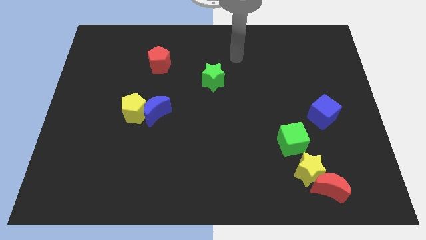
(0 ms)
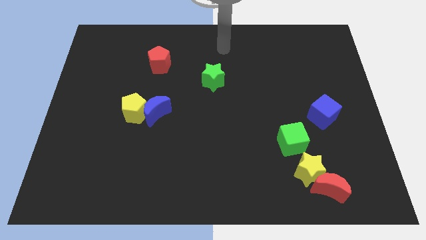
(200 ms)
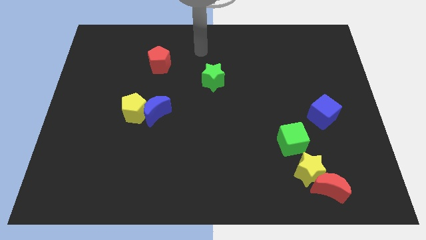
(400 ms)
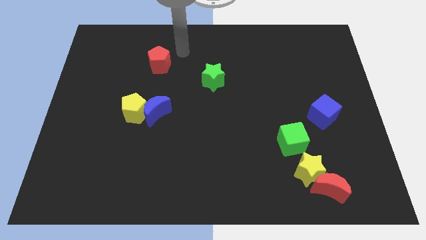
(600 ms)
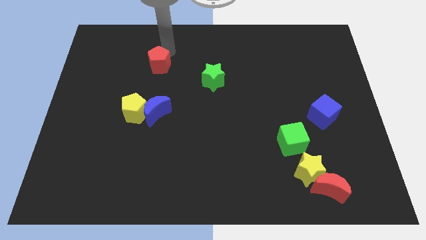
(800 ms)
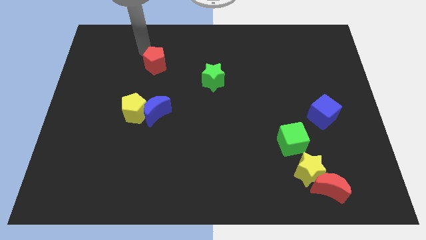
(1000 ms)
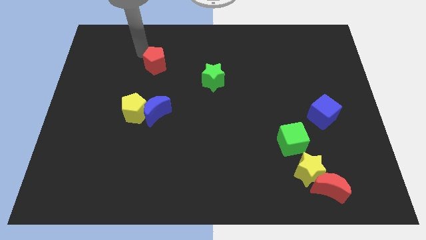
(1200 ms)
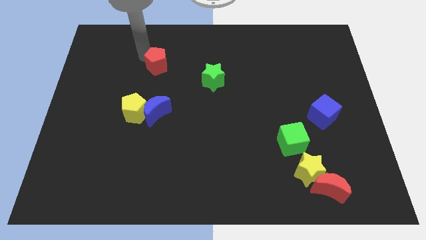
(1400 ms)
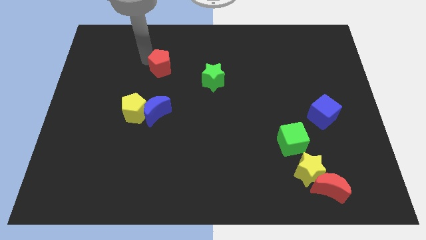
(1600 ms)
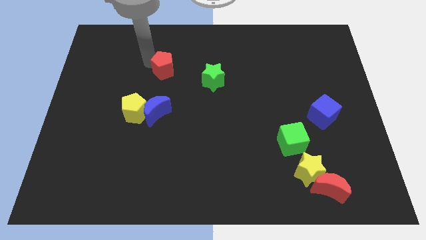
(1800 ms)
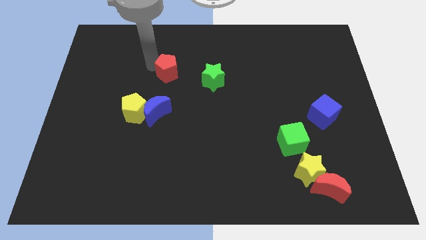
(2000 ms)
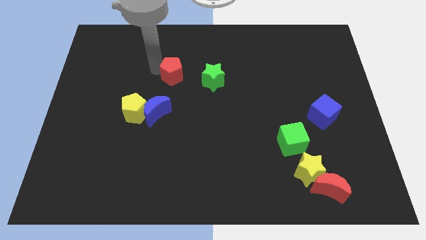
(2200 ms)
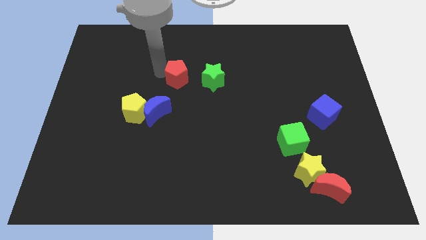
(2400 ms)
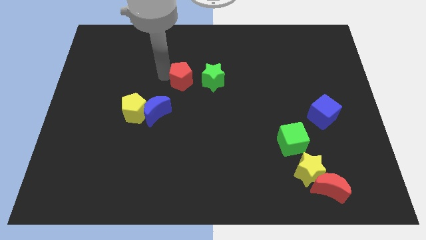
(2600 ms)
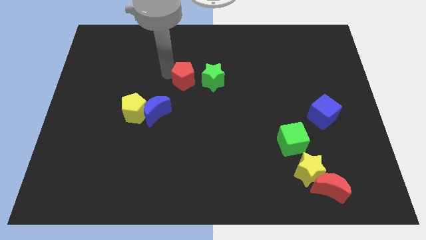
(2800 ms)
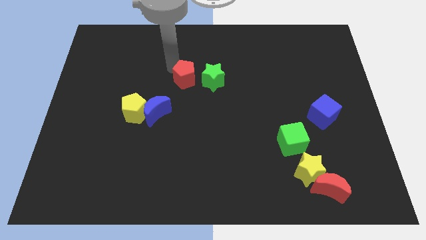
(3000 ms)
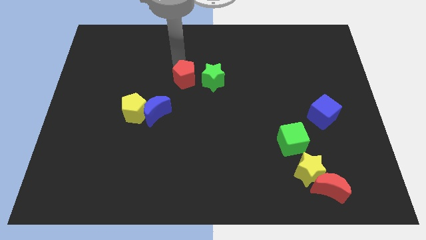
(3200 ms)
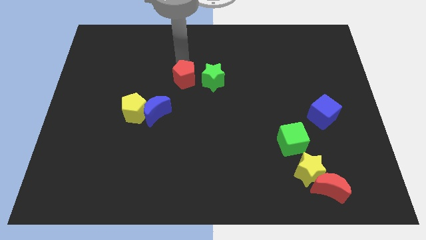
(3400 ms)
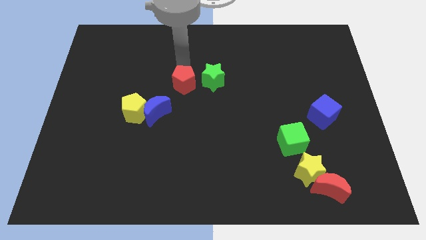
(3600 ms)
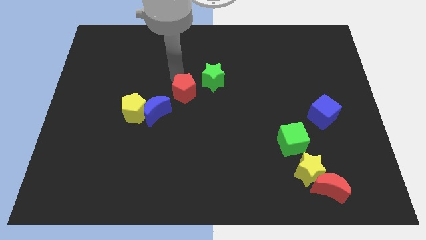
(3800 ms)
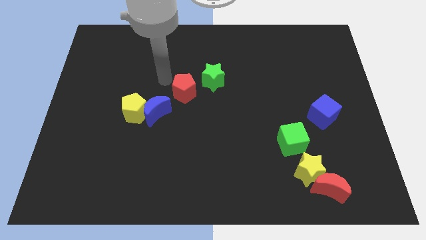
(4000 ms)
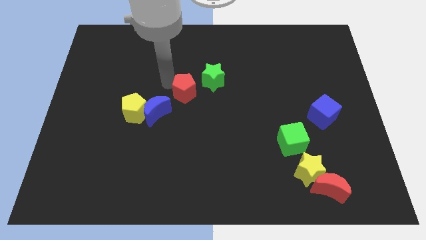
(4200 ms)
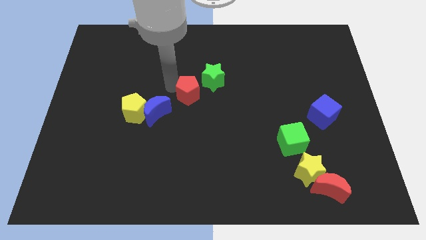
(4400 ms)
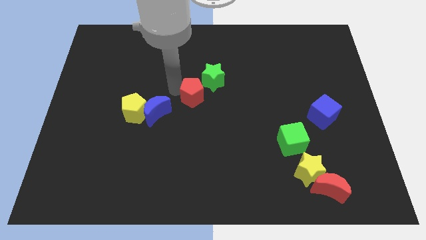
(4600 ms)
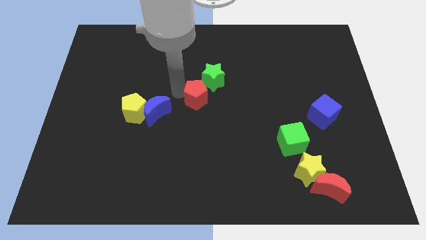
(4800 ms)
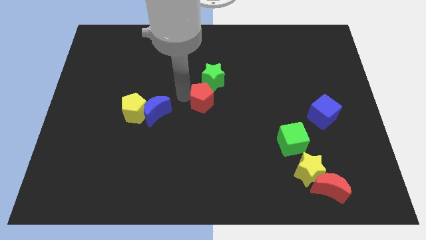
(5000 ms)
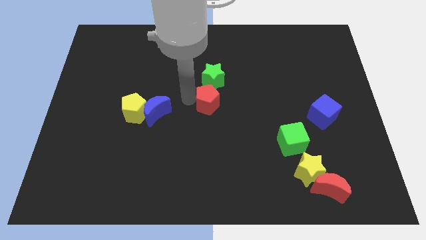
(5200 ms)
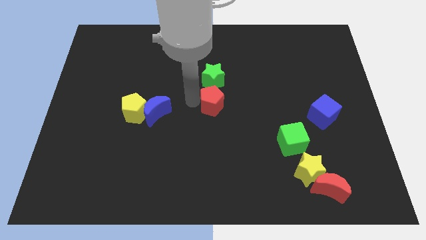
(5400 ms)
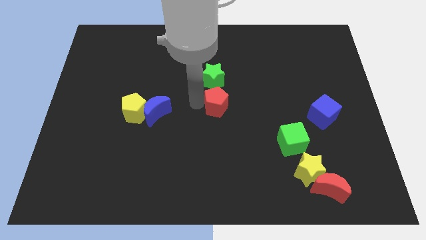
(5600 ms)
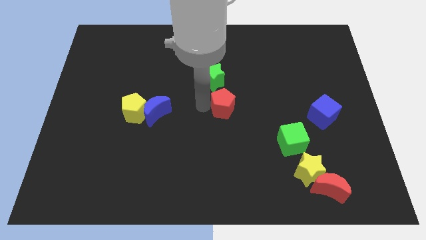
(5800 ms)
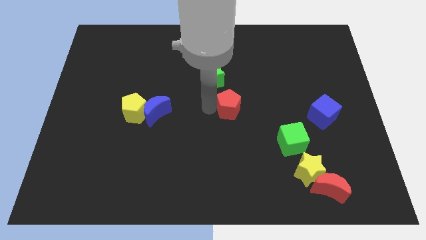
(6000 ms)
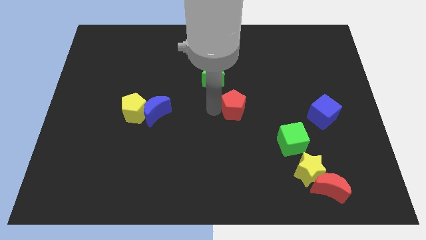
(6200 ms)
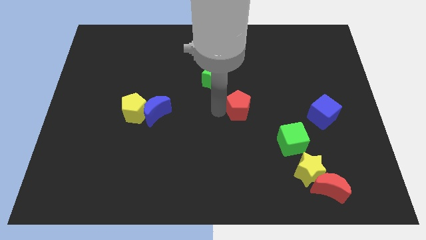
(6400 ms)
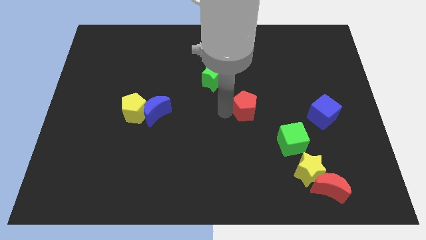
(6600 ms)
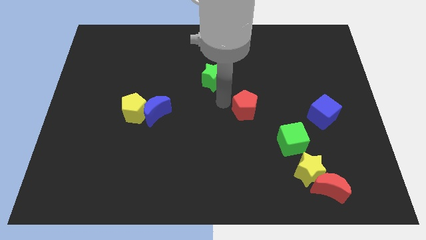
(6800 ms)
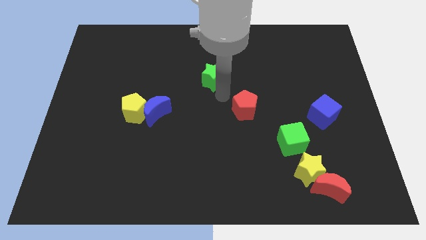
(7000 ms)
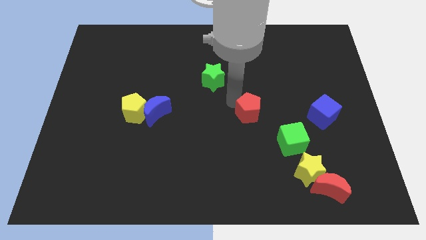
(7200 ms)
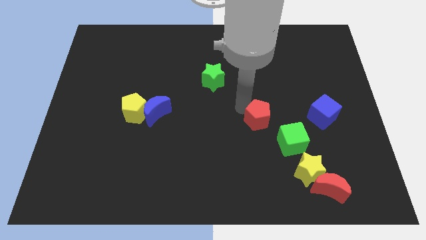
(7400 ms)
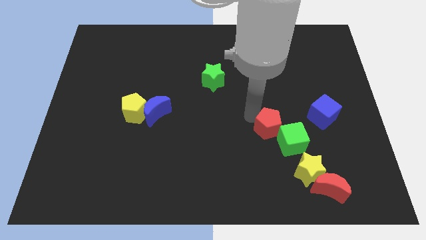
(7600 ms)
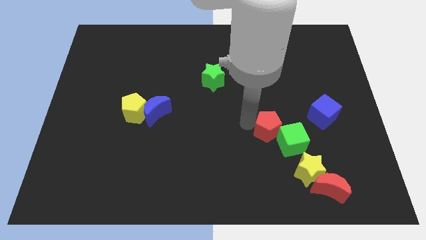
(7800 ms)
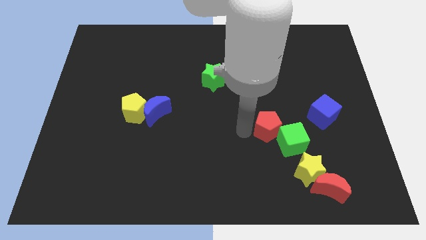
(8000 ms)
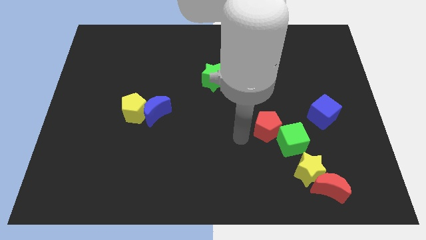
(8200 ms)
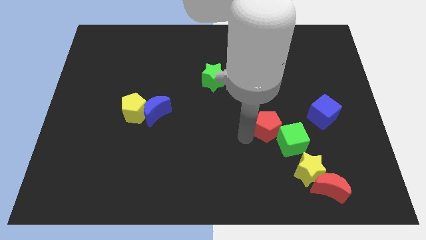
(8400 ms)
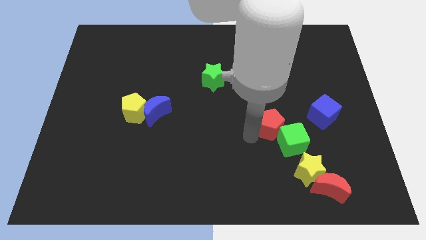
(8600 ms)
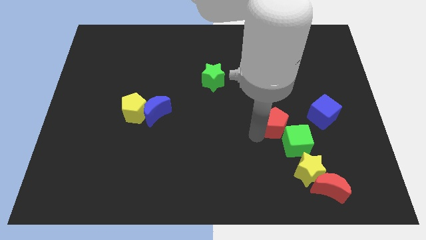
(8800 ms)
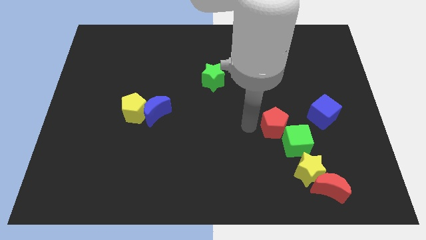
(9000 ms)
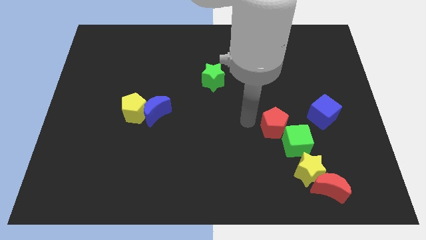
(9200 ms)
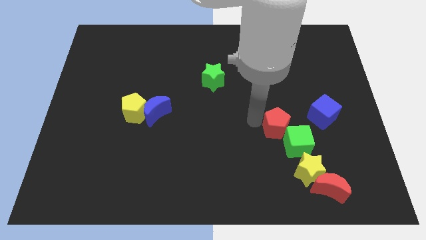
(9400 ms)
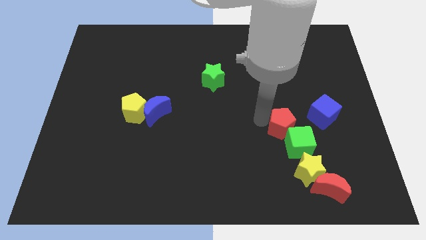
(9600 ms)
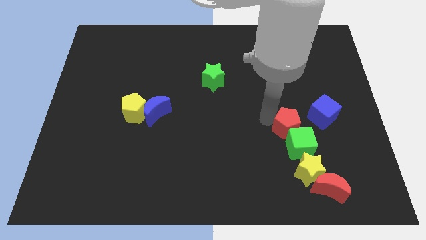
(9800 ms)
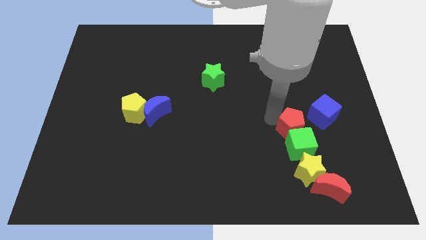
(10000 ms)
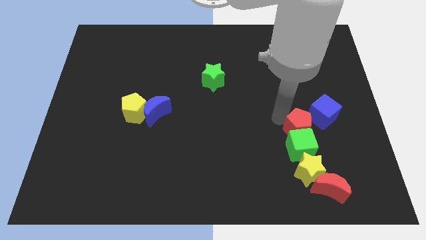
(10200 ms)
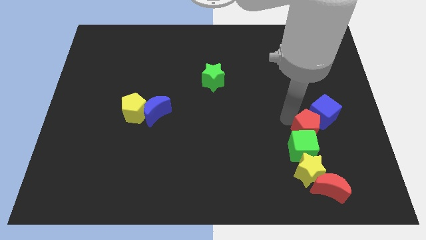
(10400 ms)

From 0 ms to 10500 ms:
put the red pentagon to the bottom side of the blue cube

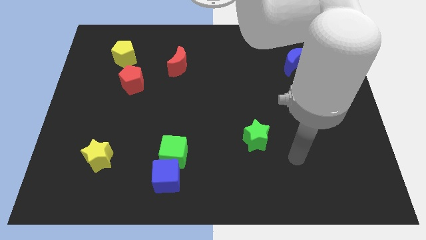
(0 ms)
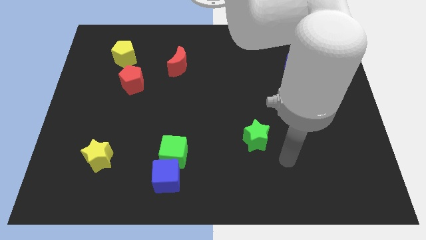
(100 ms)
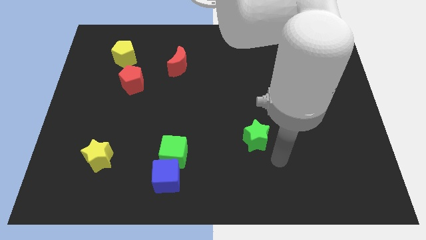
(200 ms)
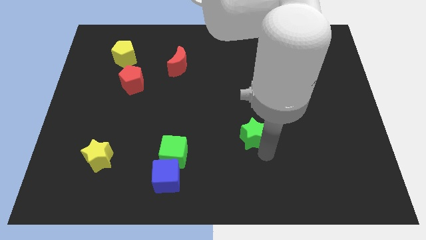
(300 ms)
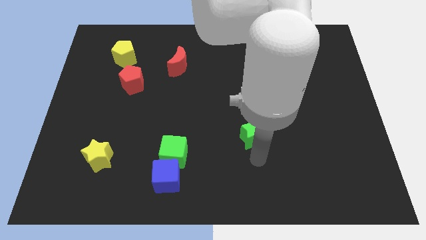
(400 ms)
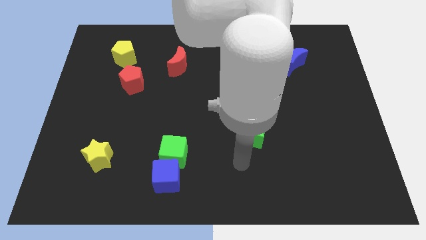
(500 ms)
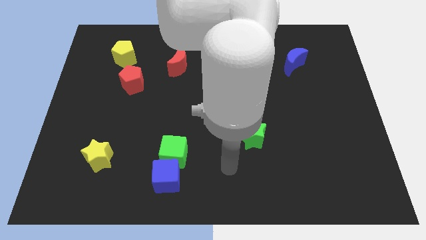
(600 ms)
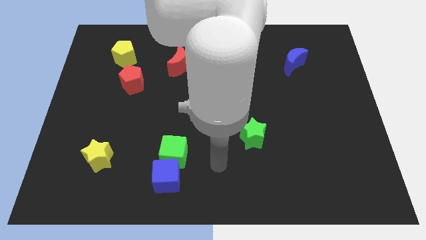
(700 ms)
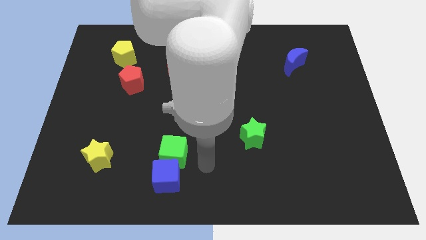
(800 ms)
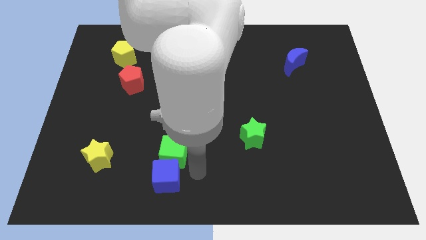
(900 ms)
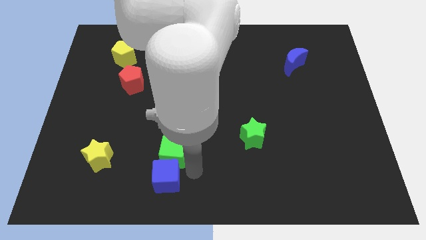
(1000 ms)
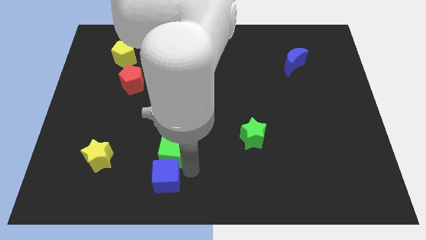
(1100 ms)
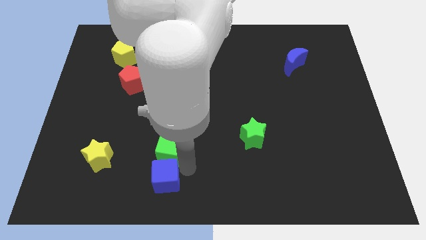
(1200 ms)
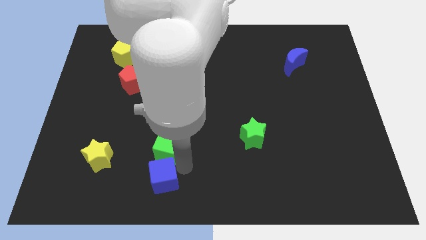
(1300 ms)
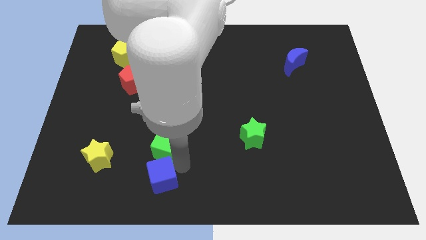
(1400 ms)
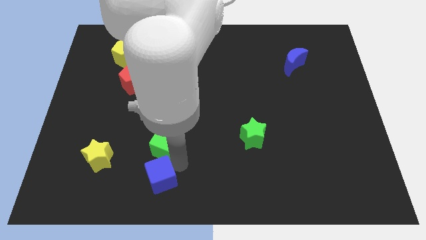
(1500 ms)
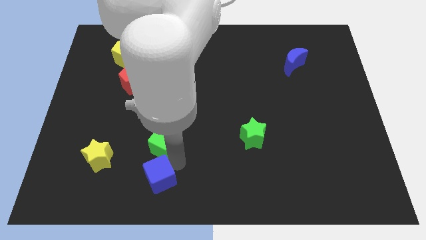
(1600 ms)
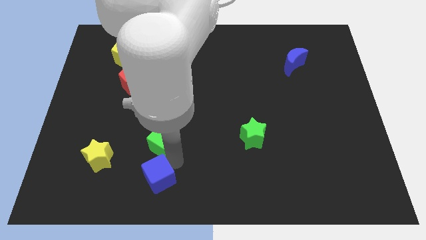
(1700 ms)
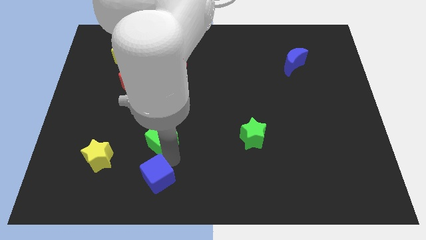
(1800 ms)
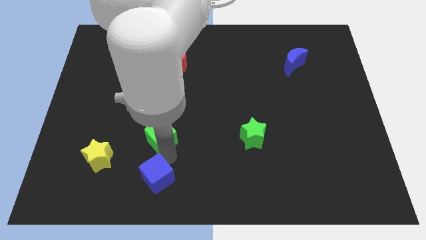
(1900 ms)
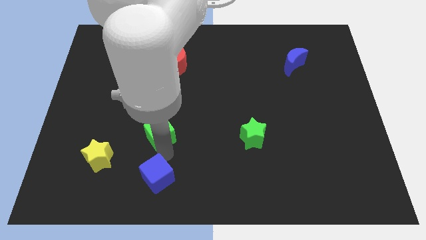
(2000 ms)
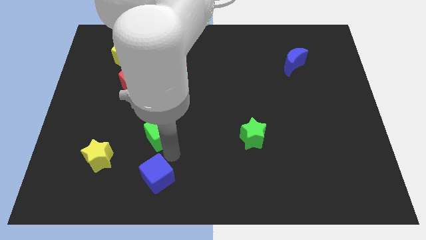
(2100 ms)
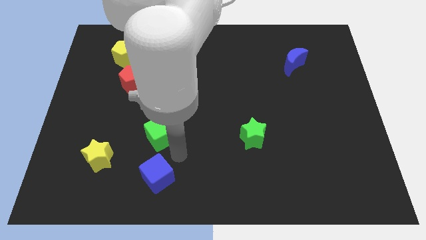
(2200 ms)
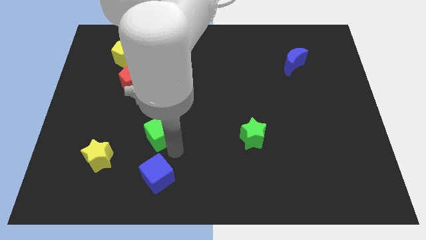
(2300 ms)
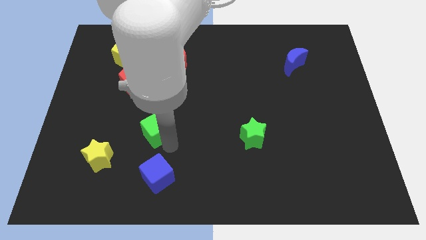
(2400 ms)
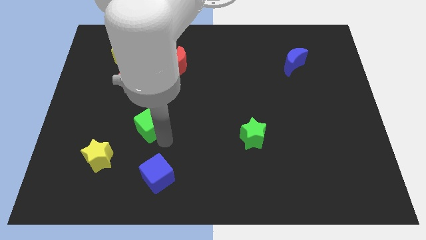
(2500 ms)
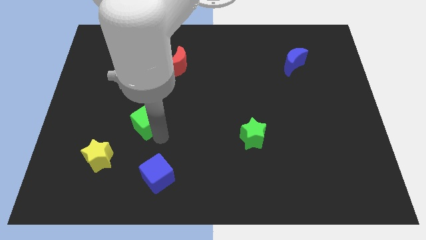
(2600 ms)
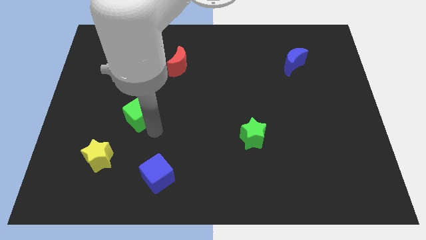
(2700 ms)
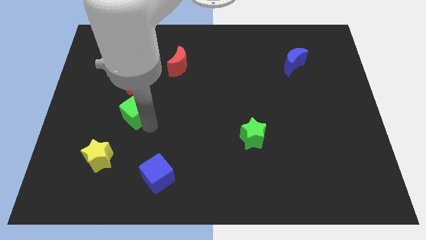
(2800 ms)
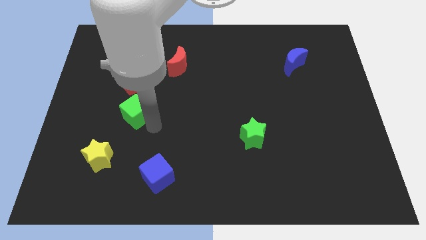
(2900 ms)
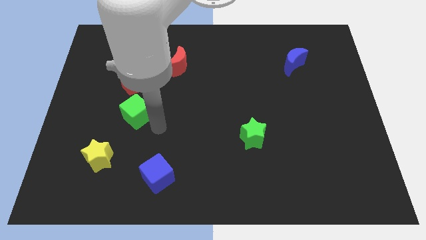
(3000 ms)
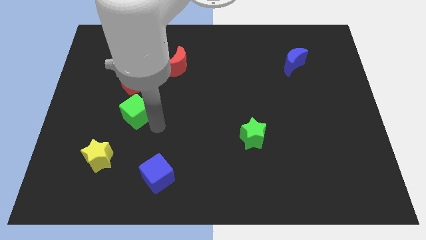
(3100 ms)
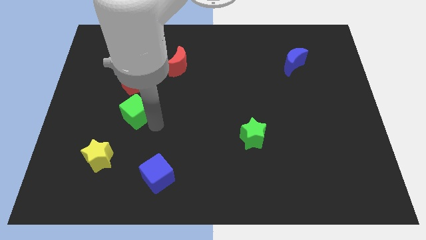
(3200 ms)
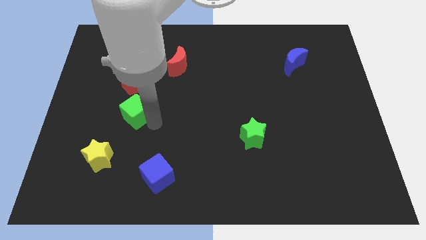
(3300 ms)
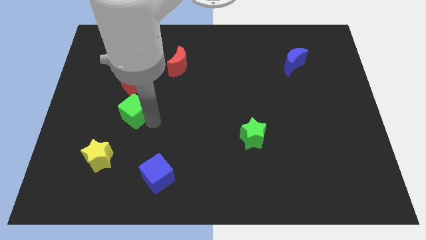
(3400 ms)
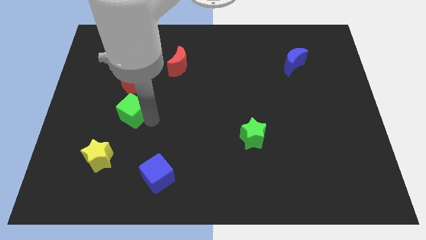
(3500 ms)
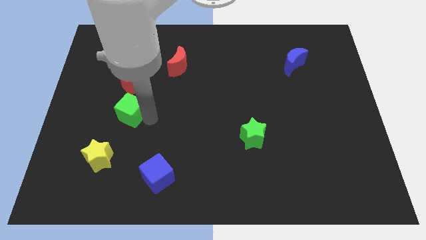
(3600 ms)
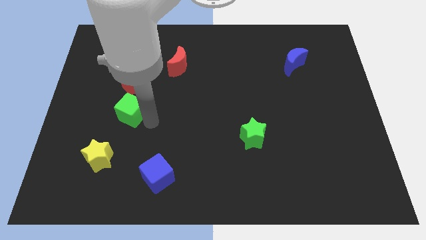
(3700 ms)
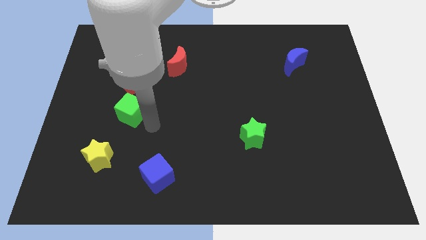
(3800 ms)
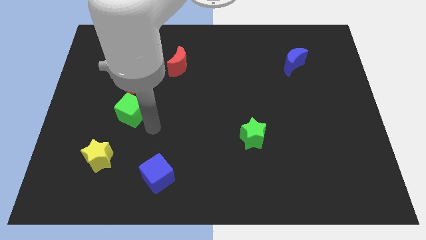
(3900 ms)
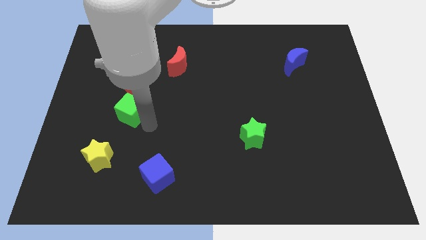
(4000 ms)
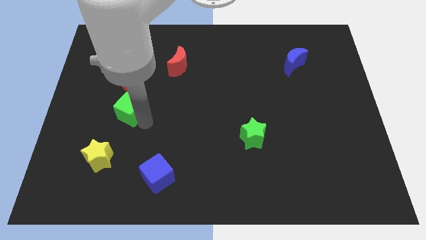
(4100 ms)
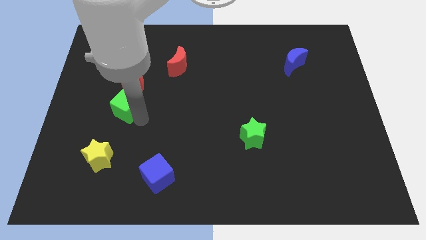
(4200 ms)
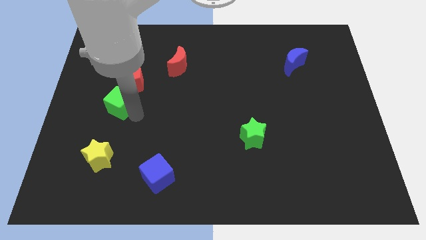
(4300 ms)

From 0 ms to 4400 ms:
slide the green cube to the bottom left of the red pentagon
